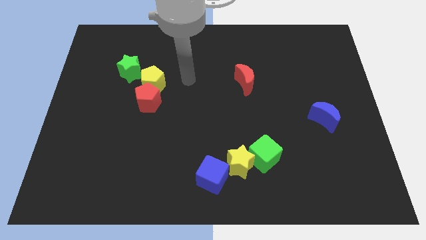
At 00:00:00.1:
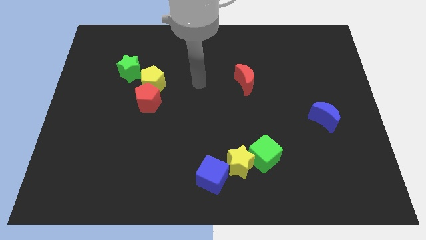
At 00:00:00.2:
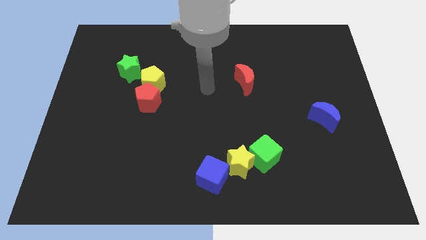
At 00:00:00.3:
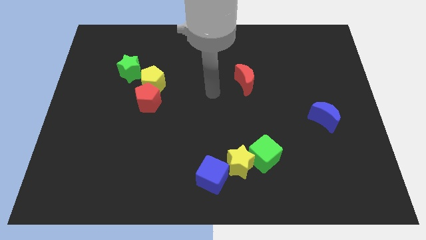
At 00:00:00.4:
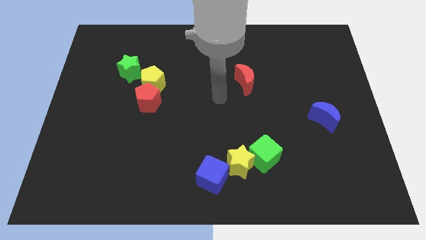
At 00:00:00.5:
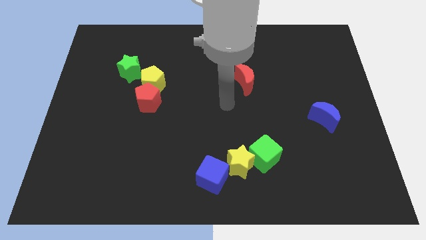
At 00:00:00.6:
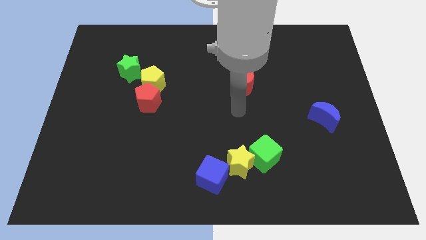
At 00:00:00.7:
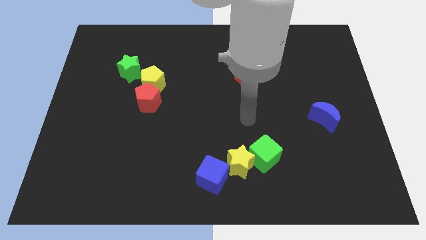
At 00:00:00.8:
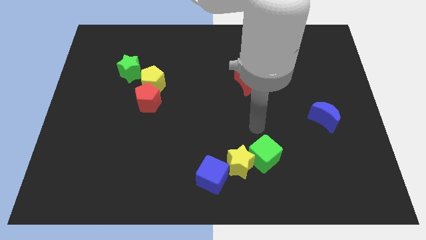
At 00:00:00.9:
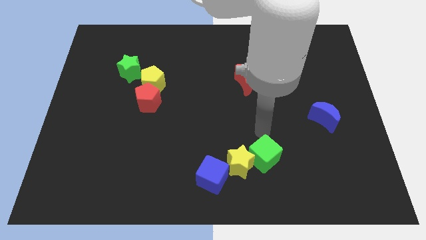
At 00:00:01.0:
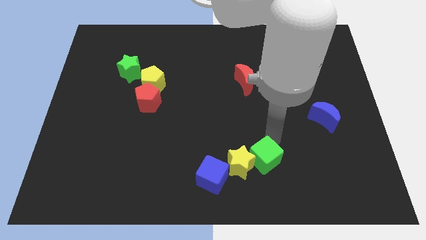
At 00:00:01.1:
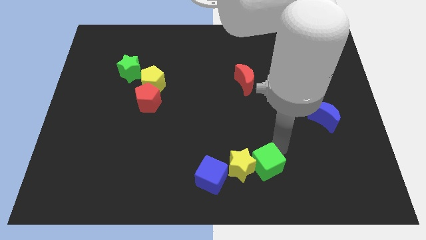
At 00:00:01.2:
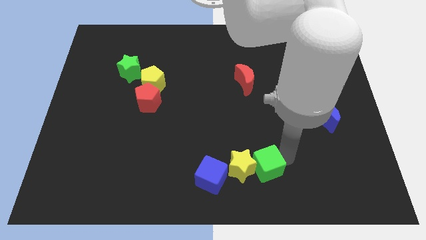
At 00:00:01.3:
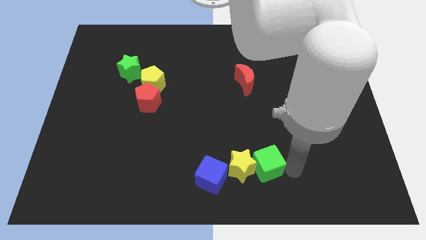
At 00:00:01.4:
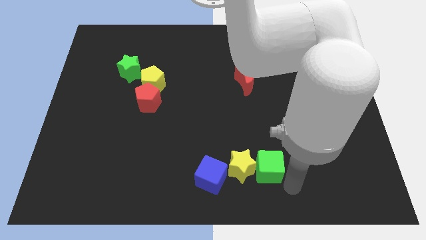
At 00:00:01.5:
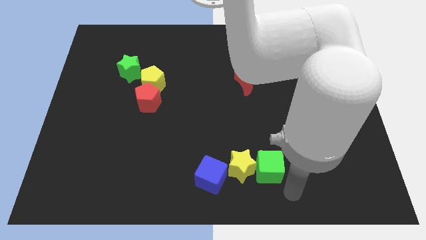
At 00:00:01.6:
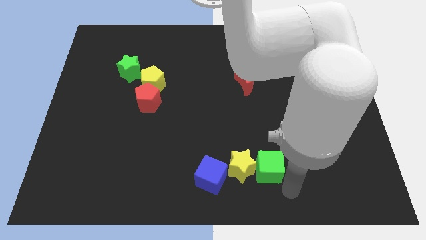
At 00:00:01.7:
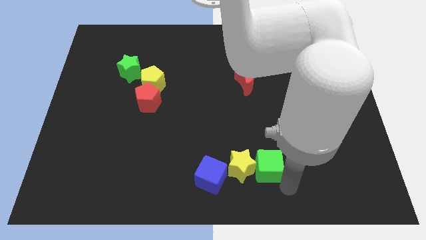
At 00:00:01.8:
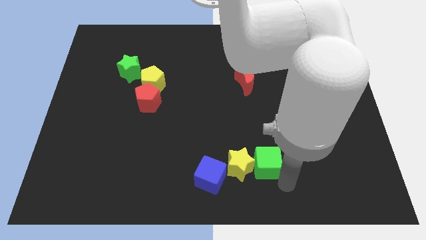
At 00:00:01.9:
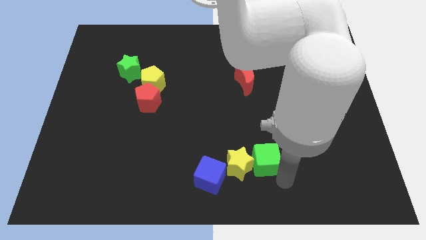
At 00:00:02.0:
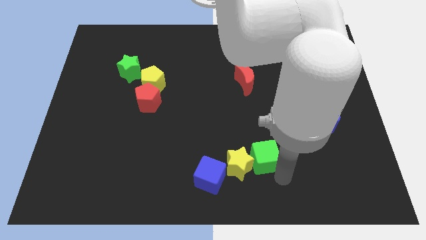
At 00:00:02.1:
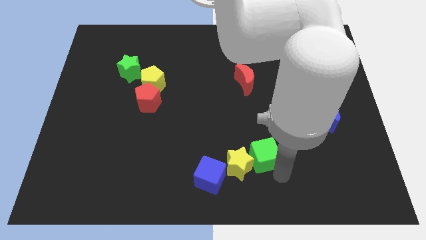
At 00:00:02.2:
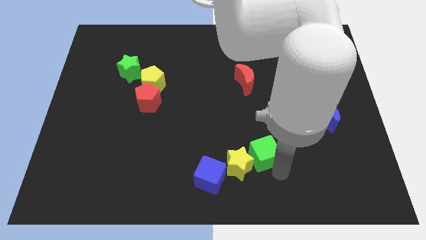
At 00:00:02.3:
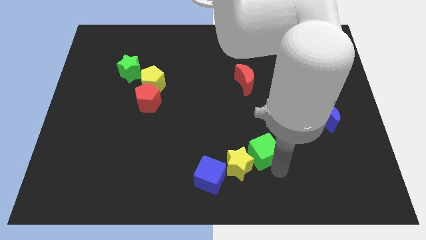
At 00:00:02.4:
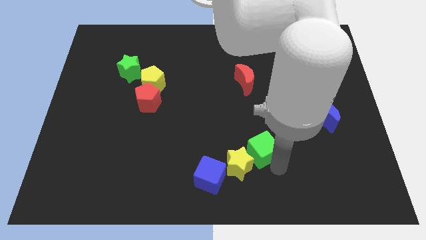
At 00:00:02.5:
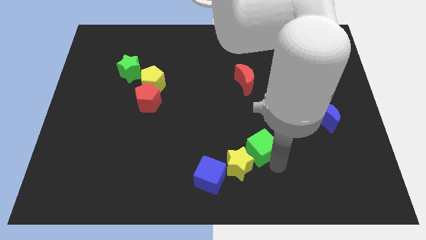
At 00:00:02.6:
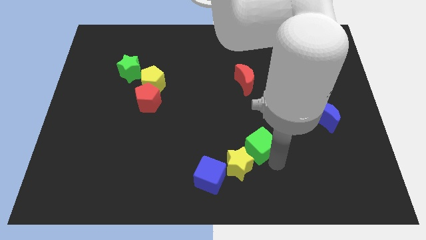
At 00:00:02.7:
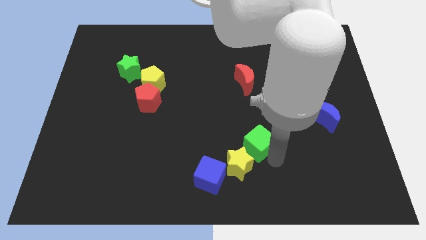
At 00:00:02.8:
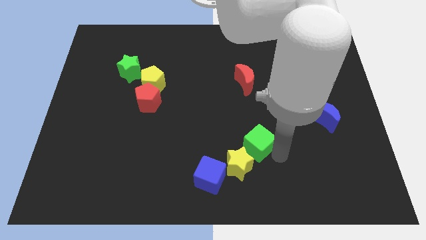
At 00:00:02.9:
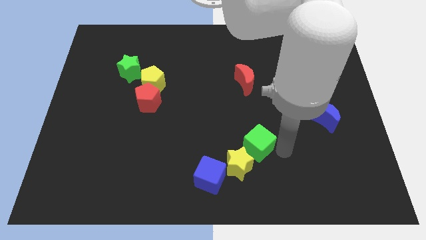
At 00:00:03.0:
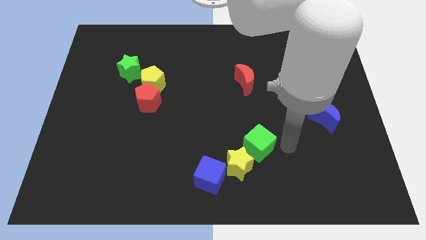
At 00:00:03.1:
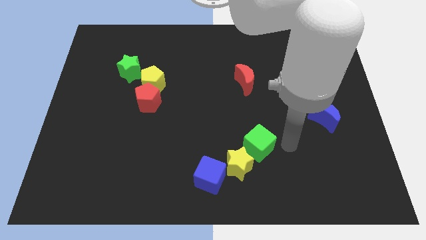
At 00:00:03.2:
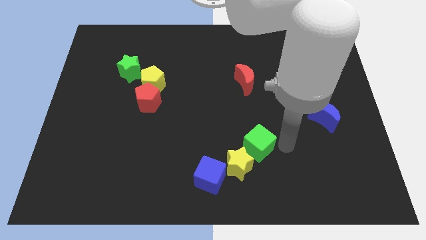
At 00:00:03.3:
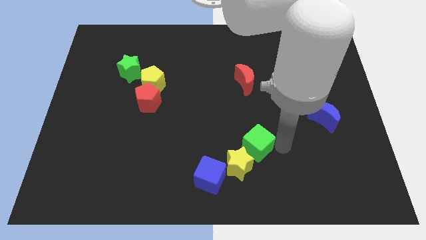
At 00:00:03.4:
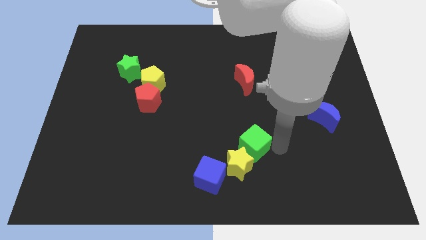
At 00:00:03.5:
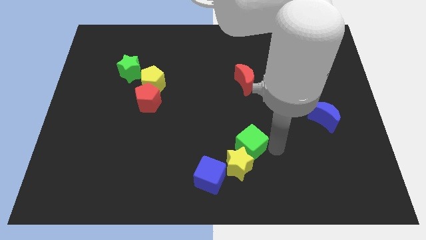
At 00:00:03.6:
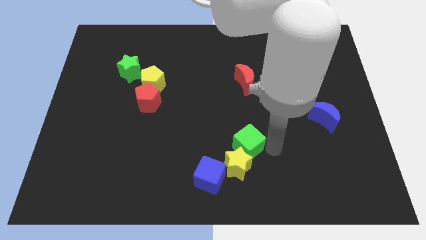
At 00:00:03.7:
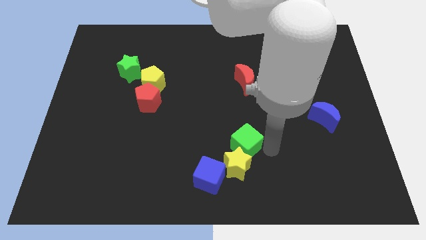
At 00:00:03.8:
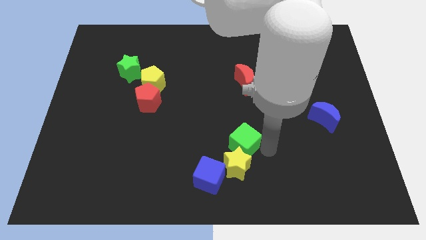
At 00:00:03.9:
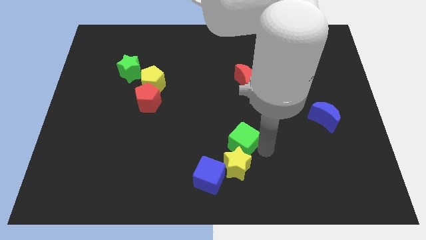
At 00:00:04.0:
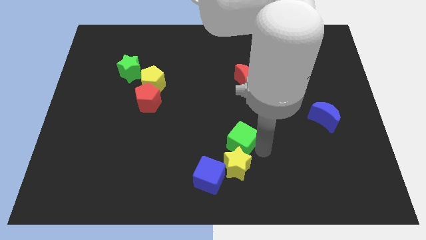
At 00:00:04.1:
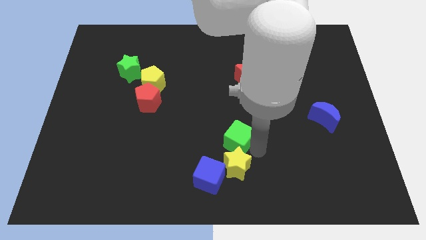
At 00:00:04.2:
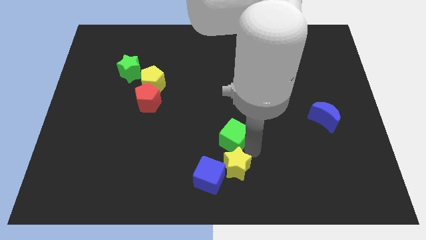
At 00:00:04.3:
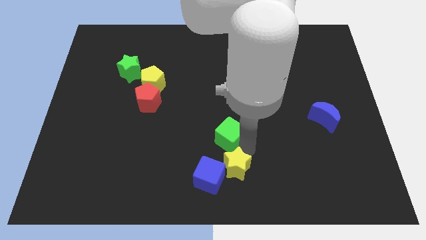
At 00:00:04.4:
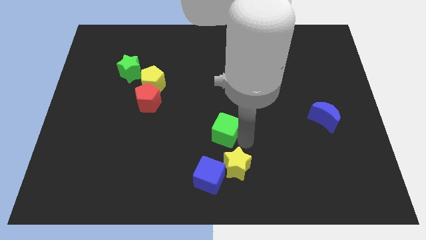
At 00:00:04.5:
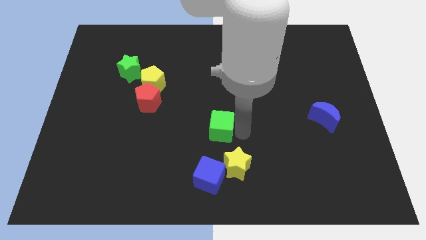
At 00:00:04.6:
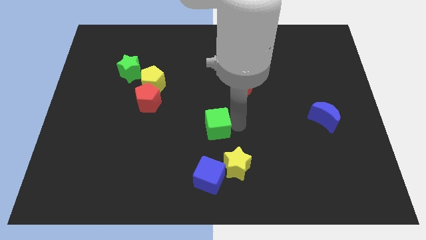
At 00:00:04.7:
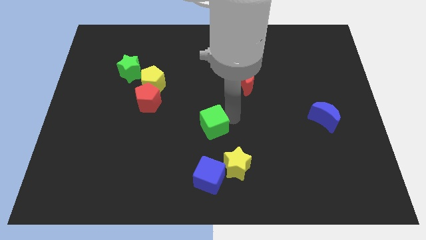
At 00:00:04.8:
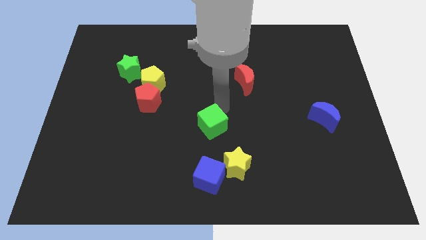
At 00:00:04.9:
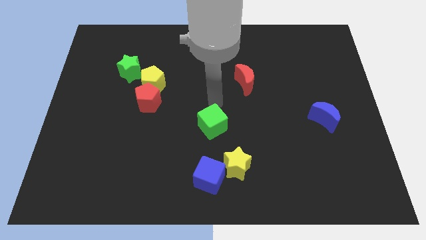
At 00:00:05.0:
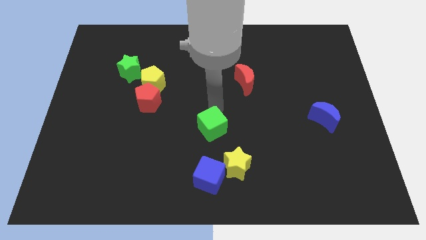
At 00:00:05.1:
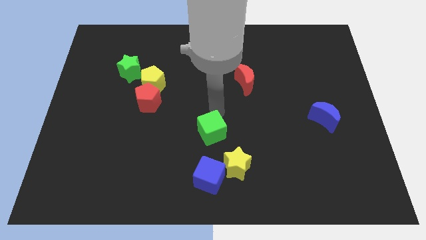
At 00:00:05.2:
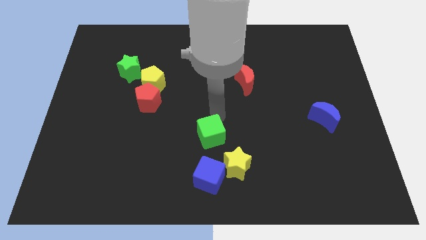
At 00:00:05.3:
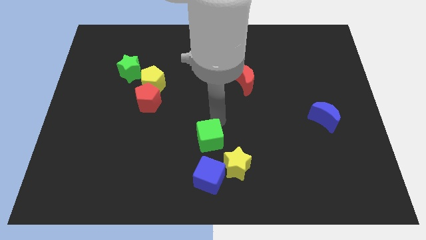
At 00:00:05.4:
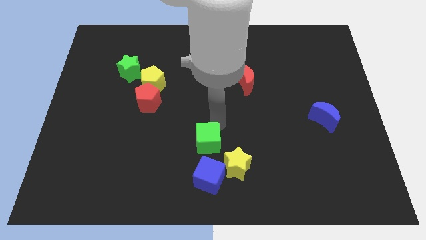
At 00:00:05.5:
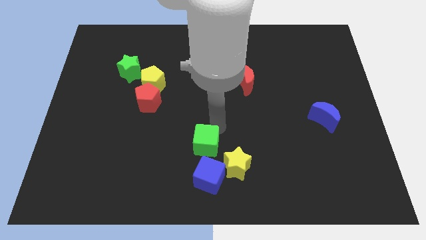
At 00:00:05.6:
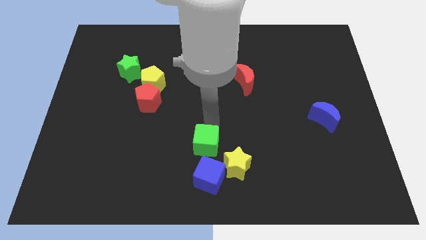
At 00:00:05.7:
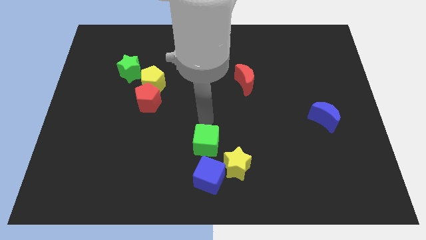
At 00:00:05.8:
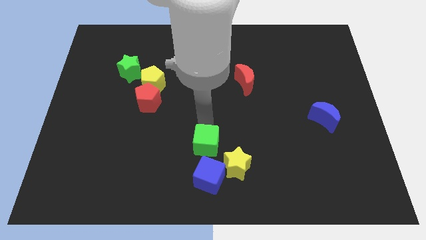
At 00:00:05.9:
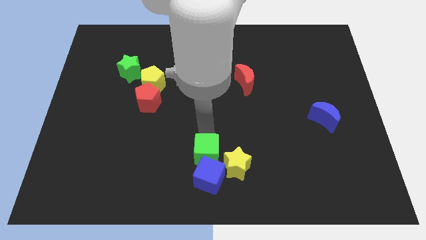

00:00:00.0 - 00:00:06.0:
push the green cube close to the blue cube

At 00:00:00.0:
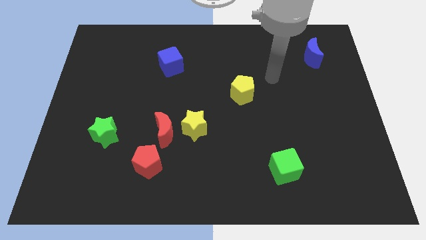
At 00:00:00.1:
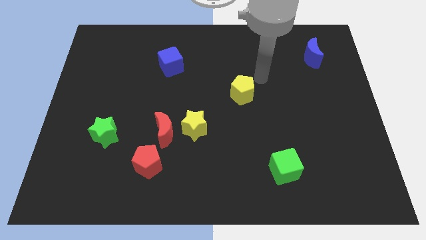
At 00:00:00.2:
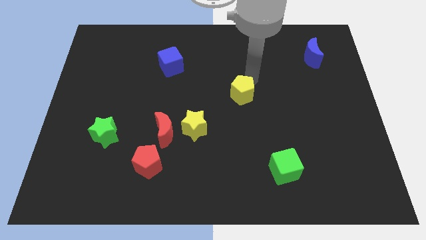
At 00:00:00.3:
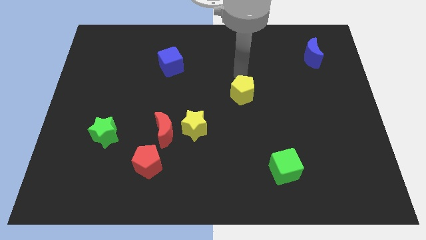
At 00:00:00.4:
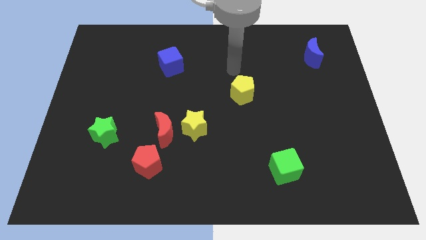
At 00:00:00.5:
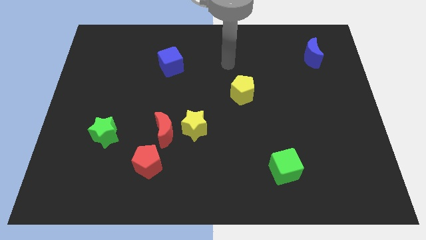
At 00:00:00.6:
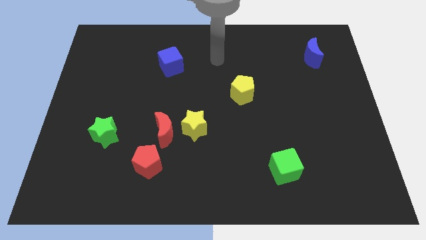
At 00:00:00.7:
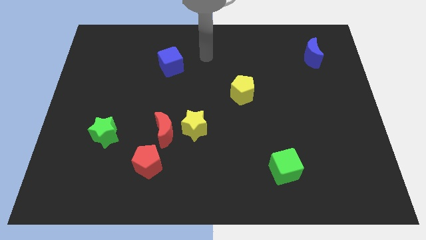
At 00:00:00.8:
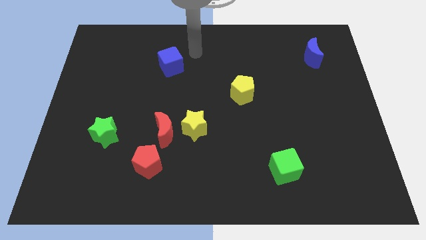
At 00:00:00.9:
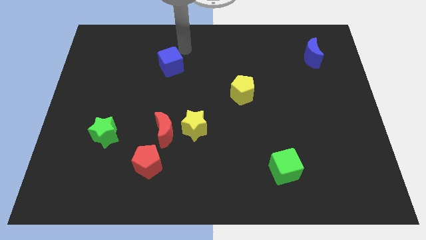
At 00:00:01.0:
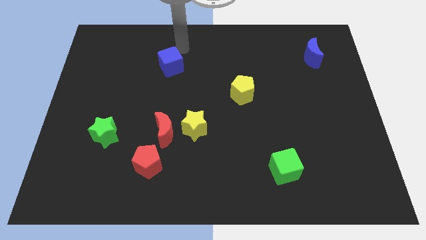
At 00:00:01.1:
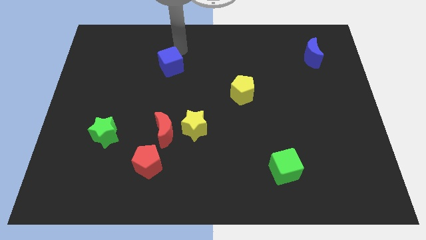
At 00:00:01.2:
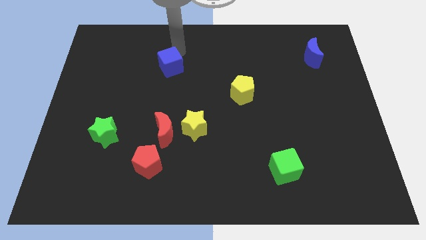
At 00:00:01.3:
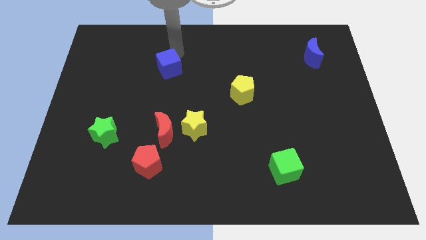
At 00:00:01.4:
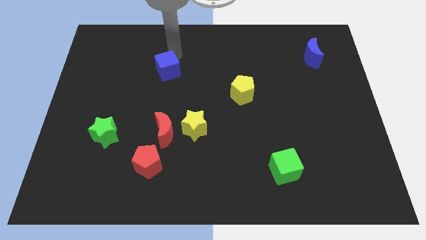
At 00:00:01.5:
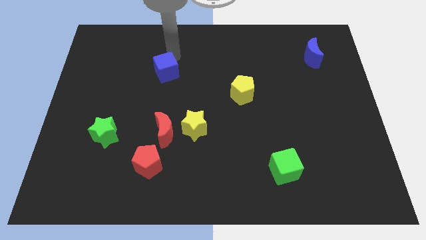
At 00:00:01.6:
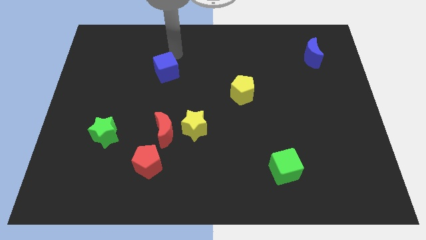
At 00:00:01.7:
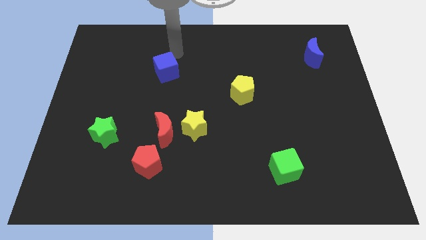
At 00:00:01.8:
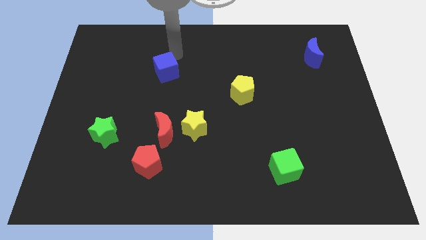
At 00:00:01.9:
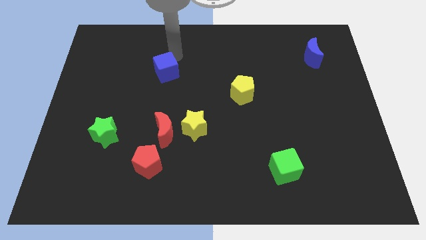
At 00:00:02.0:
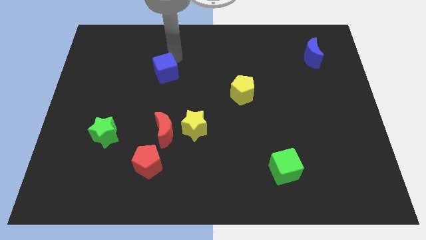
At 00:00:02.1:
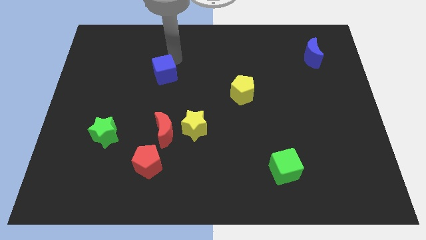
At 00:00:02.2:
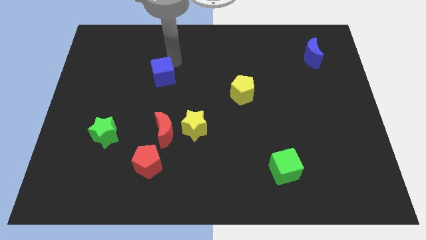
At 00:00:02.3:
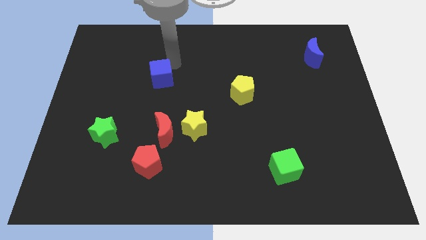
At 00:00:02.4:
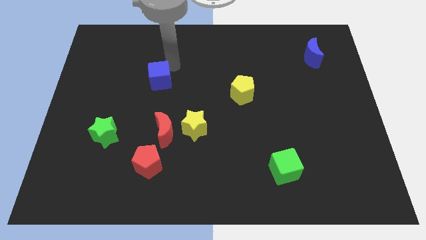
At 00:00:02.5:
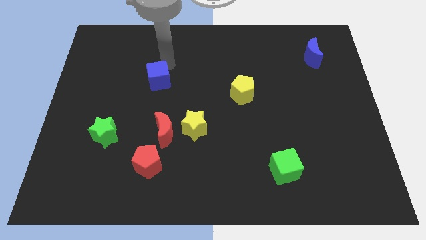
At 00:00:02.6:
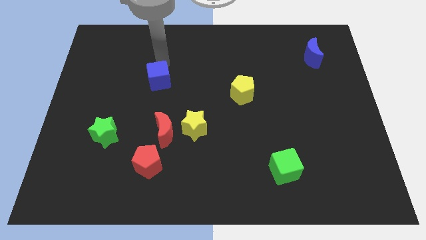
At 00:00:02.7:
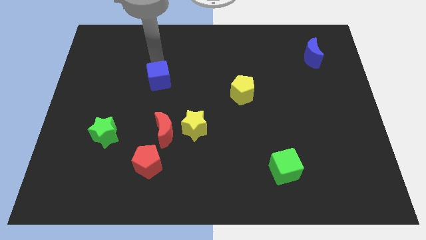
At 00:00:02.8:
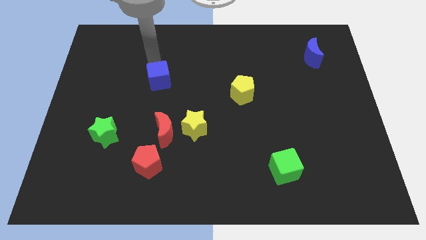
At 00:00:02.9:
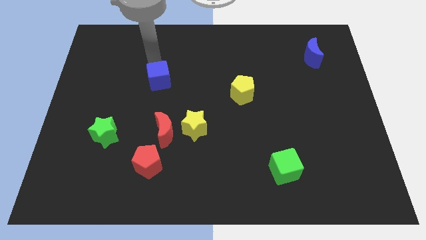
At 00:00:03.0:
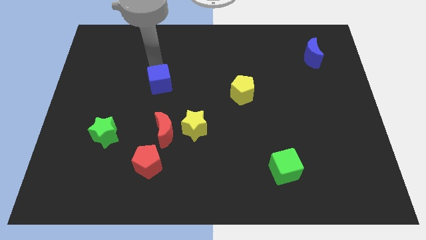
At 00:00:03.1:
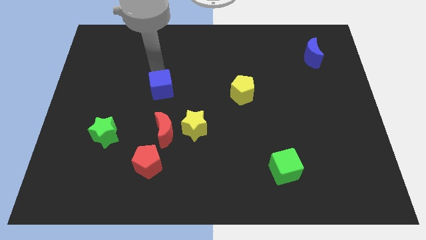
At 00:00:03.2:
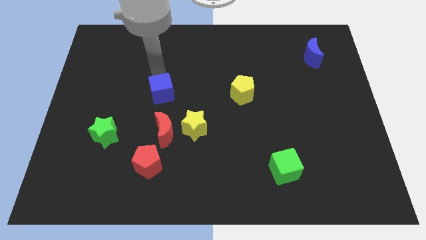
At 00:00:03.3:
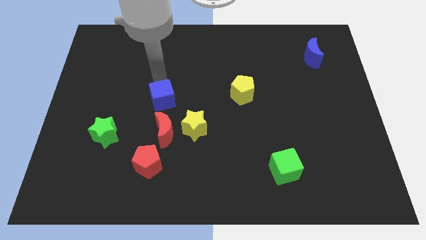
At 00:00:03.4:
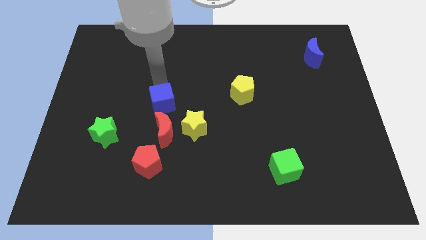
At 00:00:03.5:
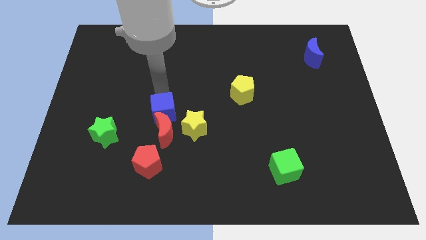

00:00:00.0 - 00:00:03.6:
push the blue cube next to the red moon
